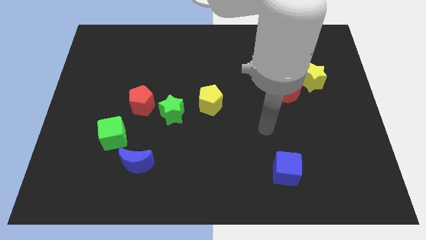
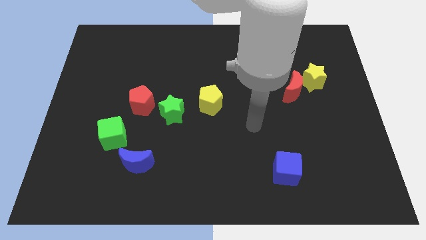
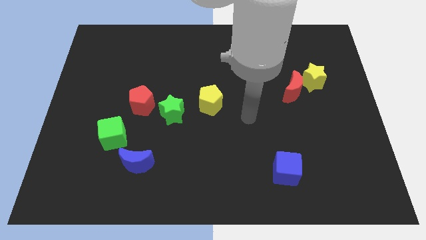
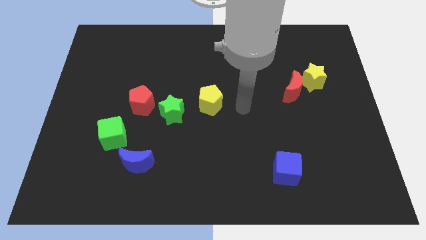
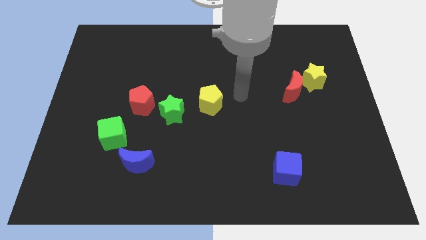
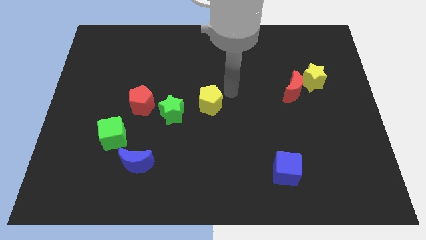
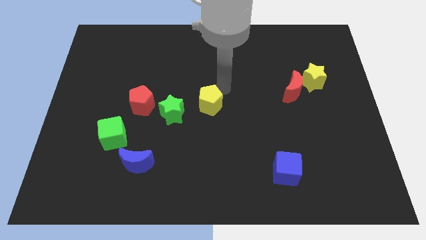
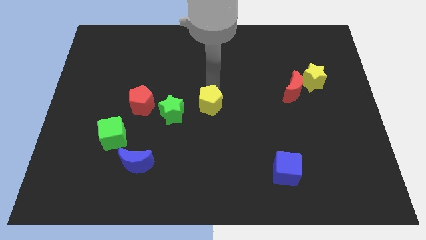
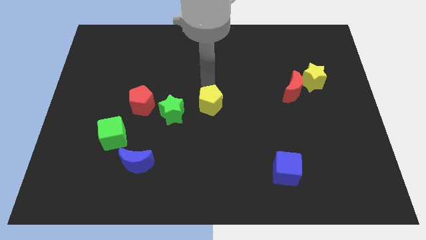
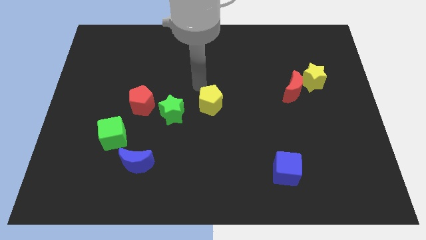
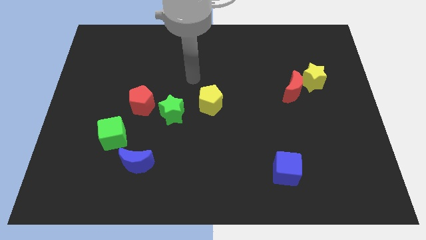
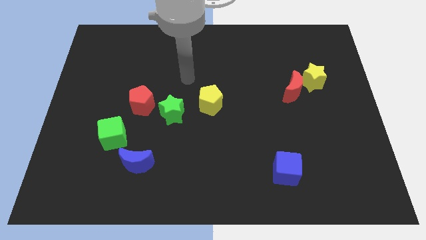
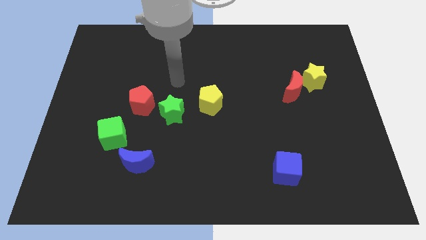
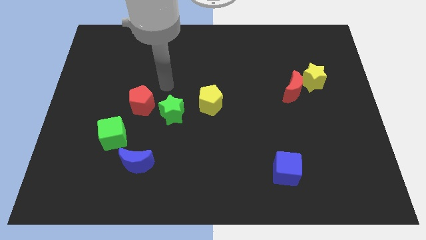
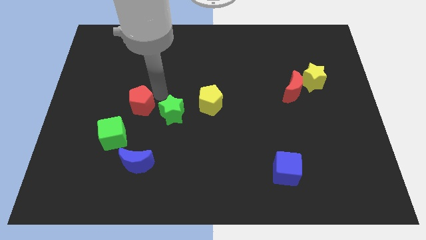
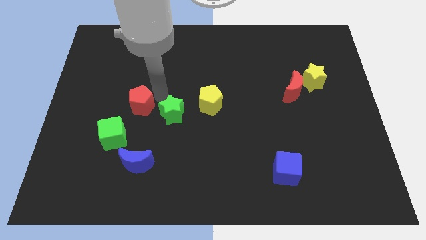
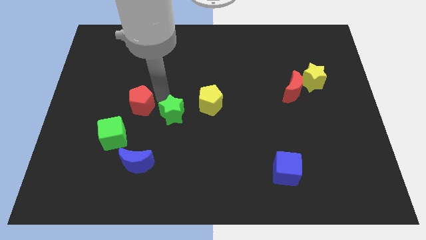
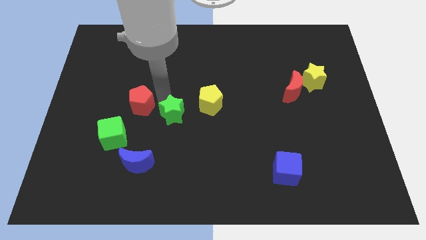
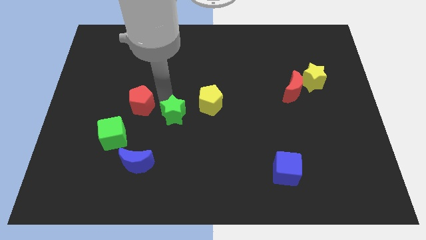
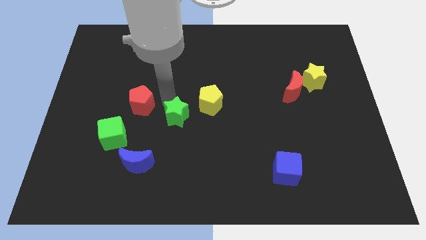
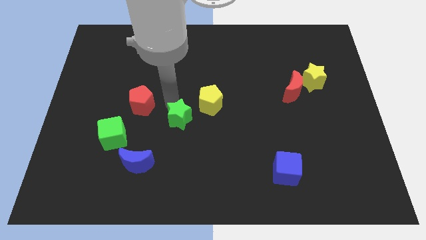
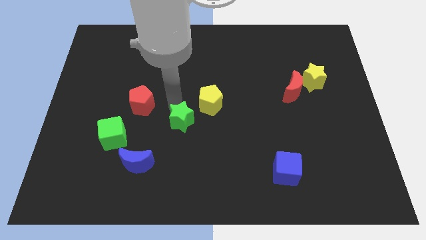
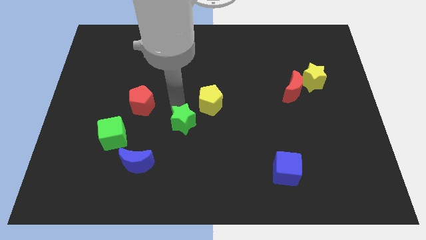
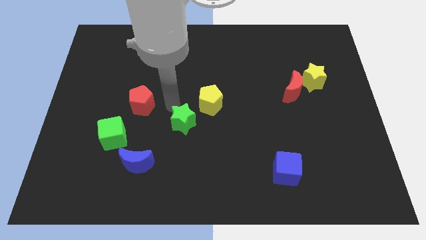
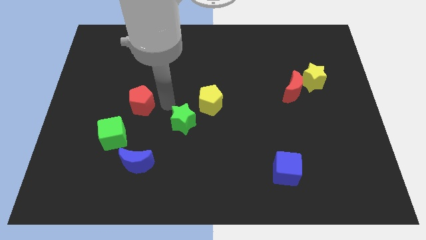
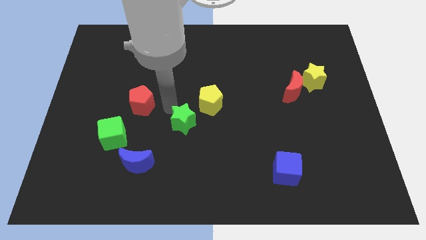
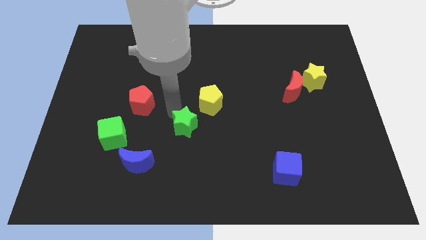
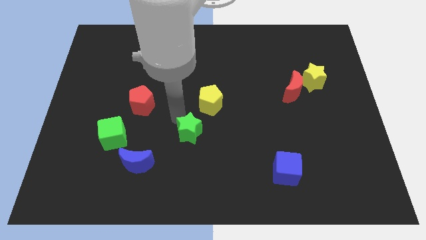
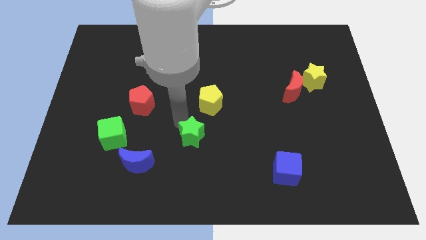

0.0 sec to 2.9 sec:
slightly move the green star down and then to the right

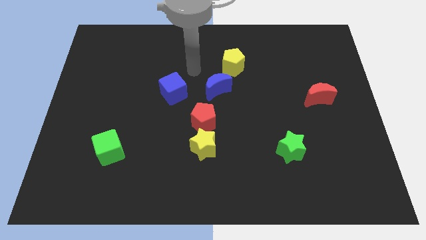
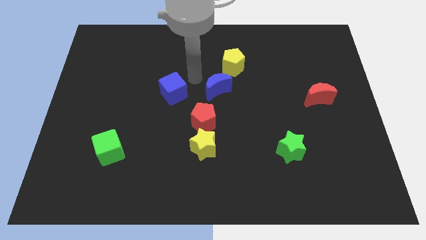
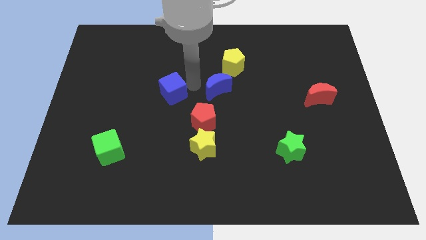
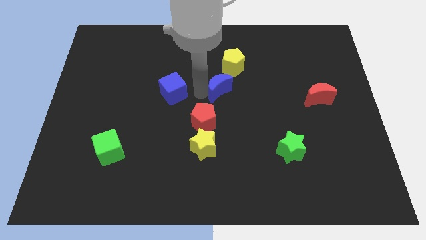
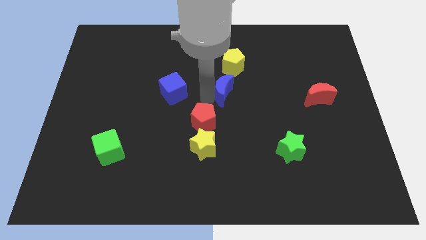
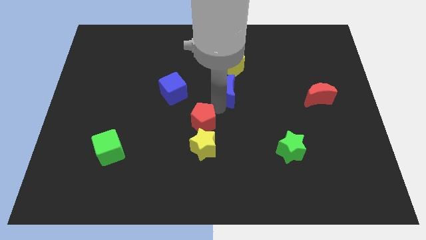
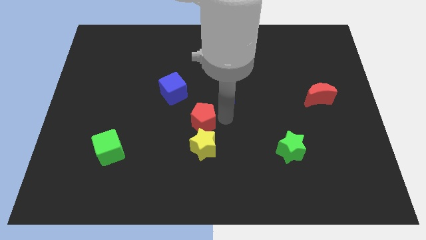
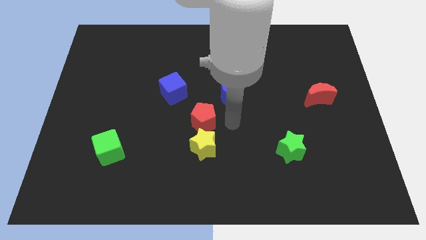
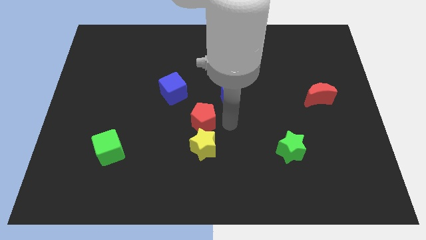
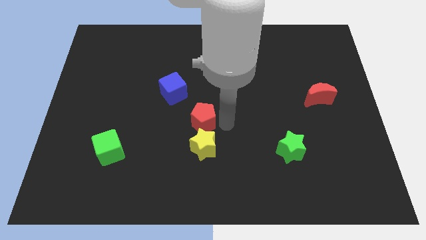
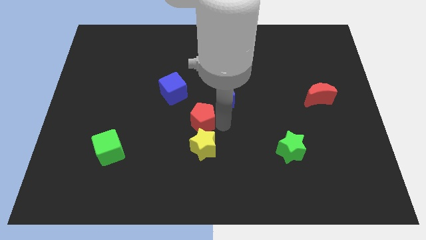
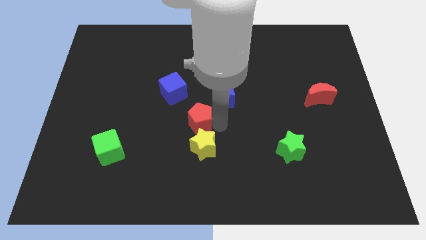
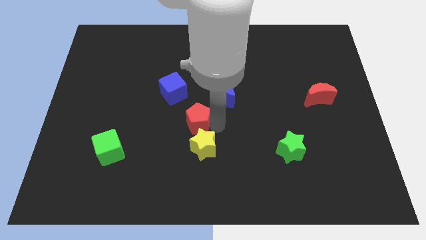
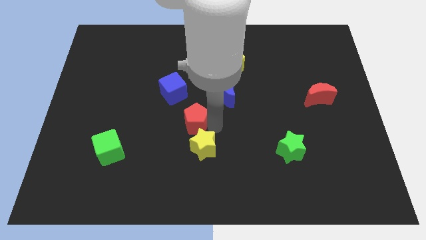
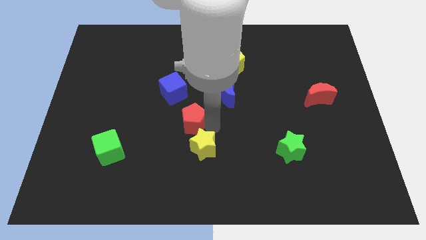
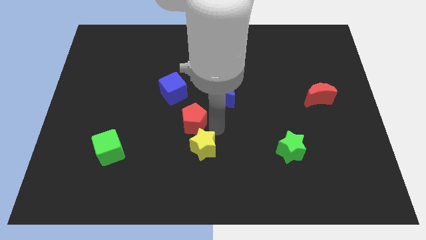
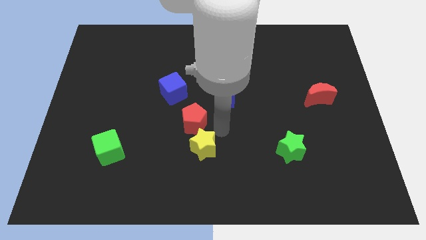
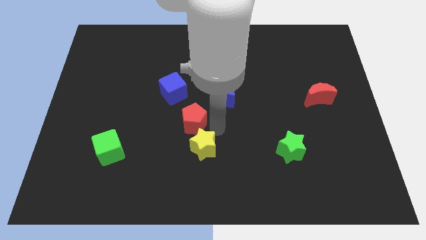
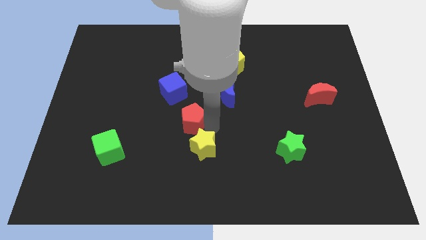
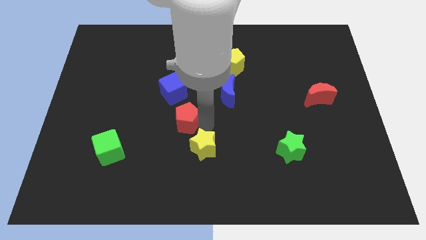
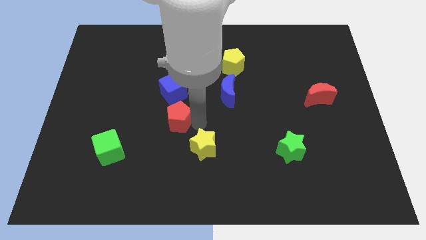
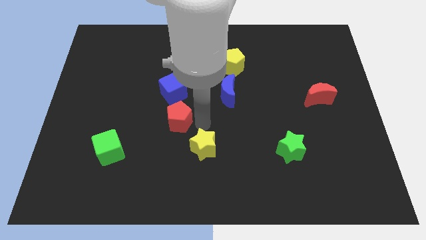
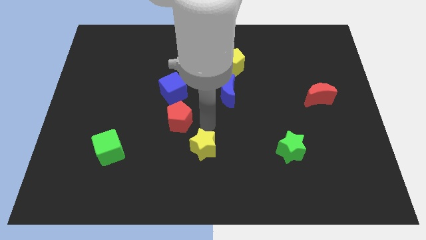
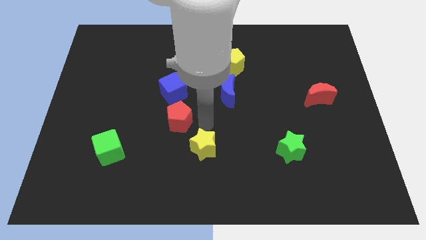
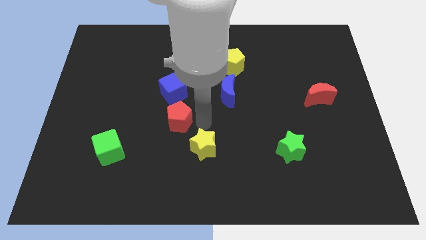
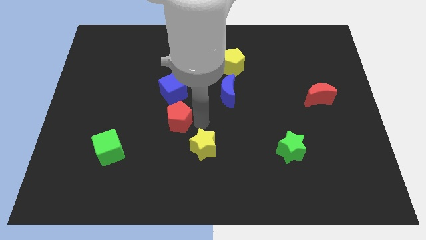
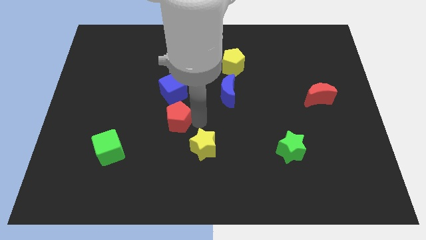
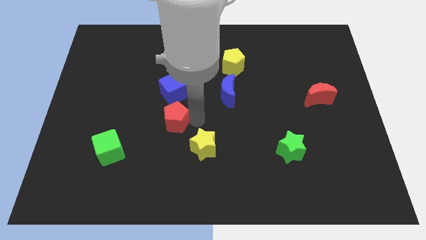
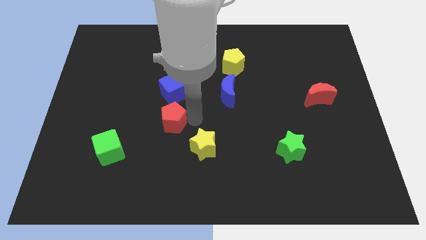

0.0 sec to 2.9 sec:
move the red pentagon to the left slightly

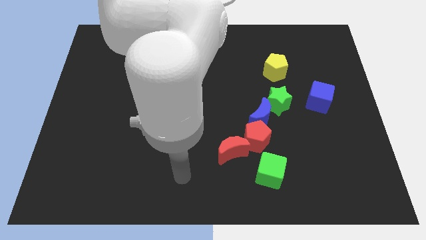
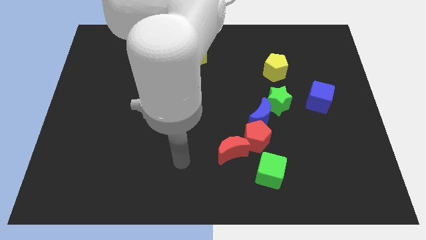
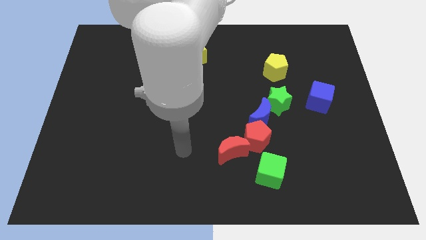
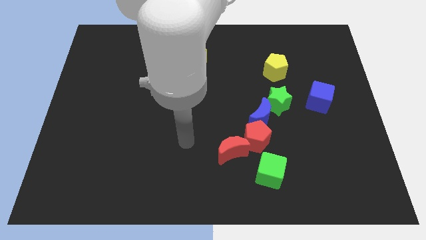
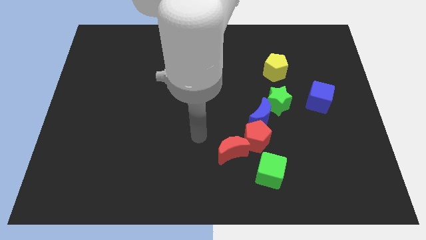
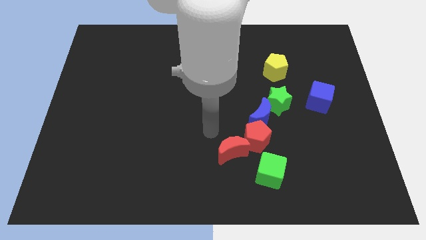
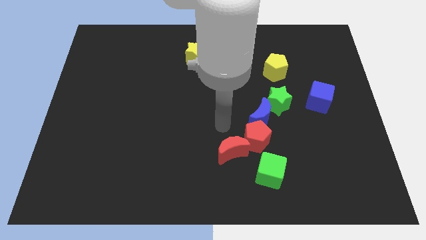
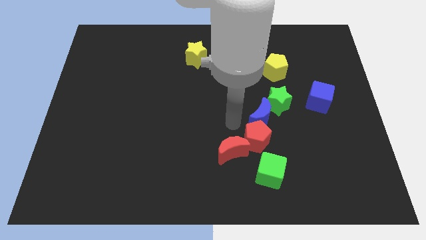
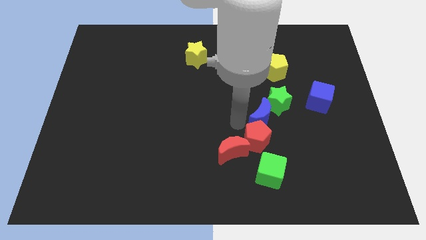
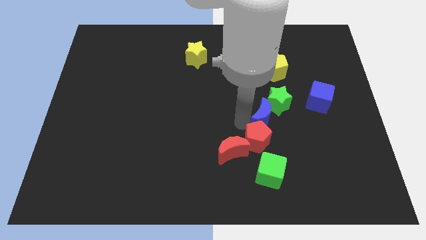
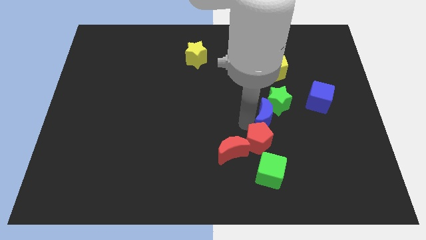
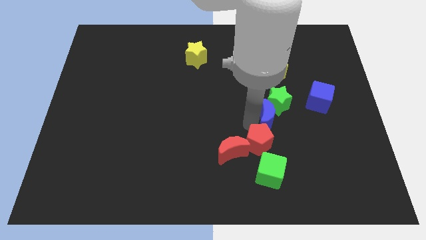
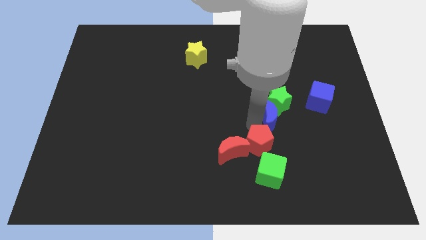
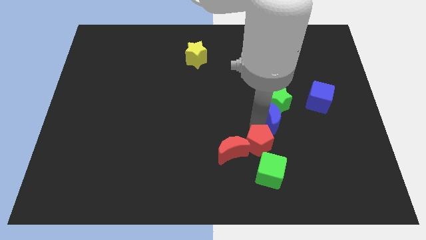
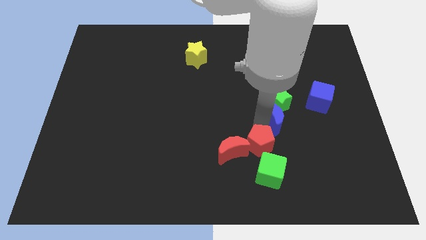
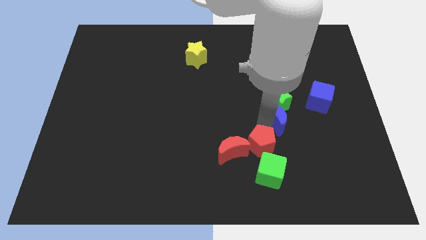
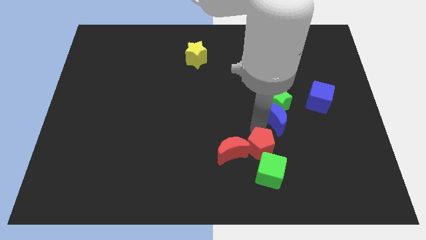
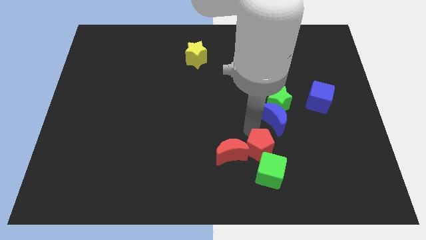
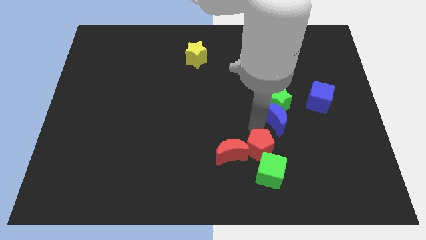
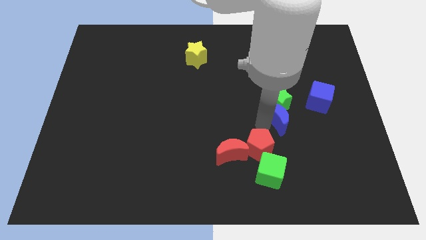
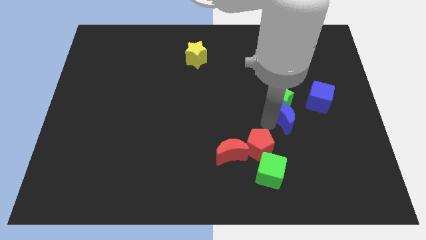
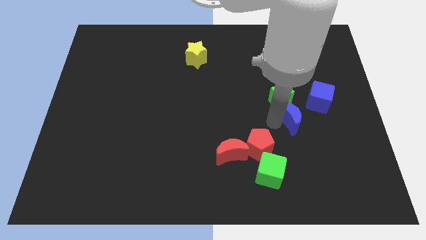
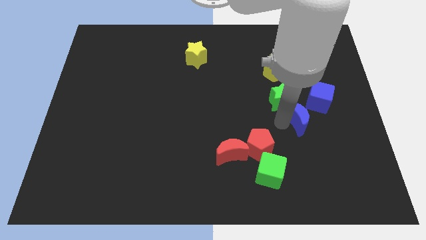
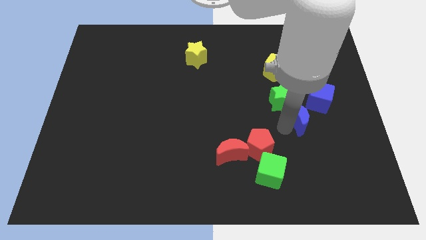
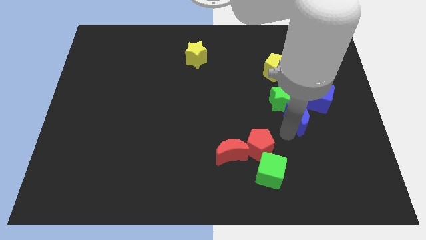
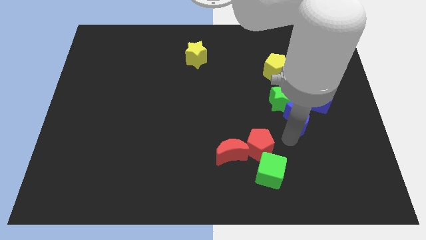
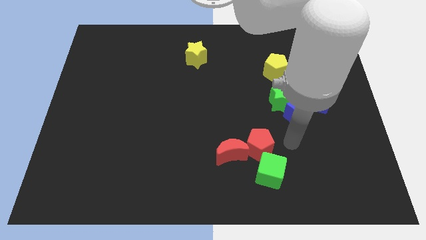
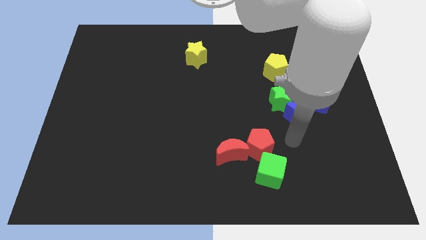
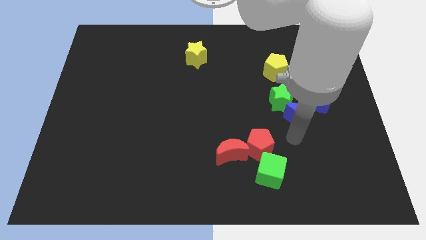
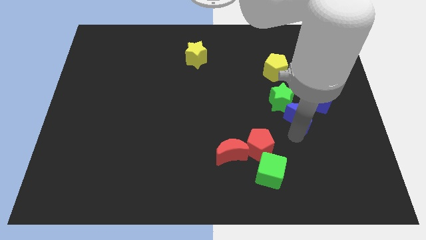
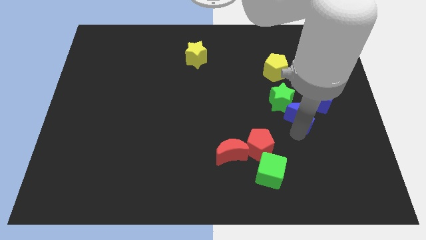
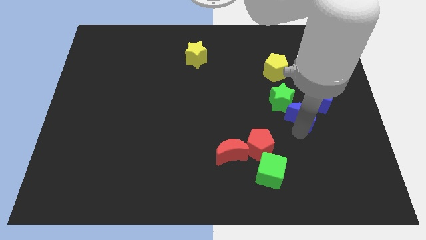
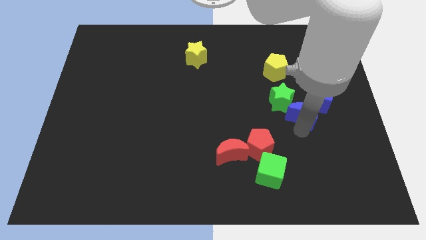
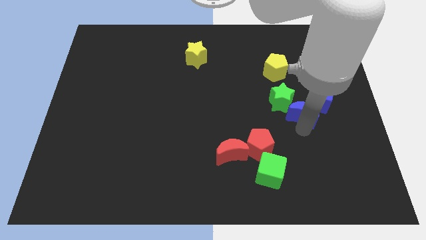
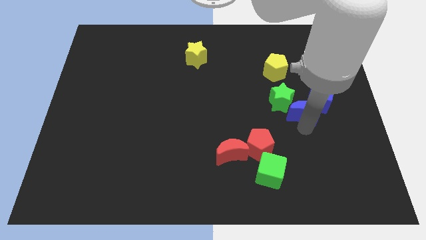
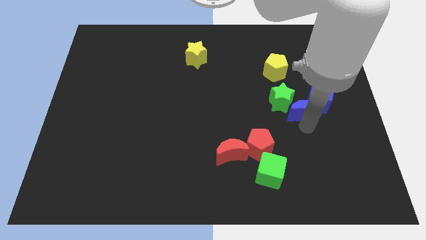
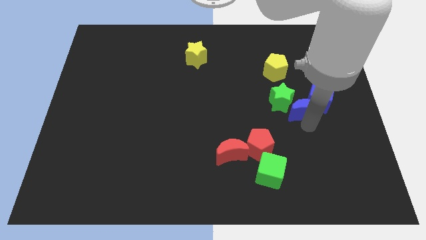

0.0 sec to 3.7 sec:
move the blue moon a little up and right
